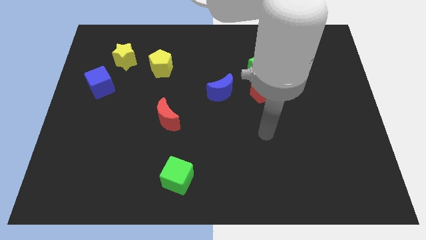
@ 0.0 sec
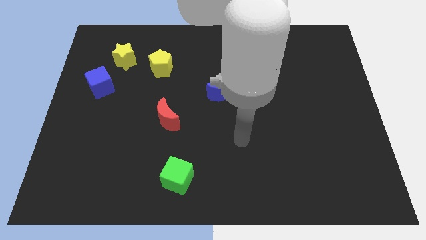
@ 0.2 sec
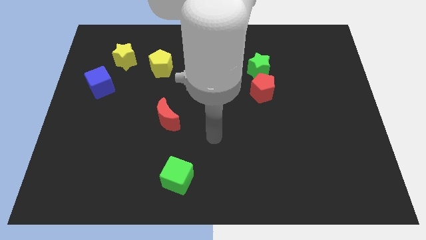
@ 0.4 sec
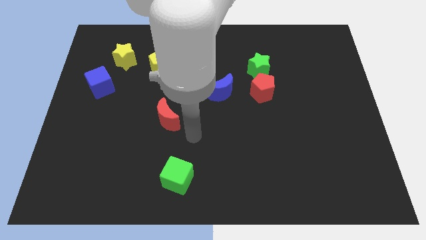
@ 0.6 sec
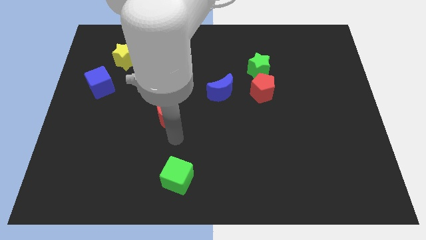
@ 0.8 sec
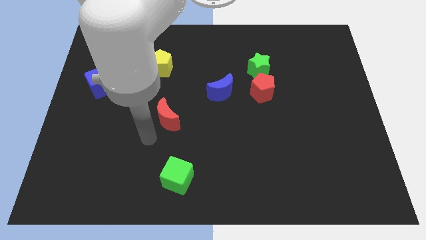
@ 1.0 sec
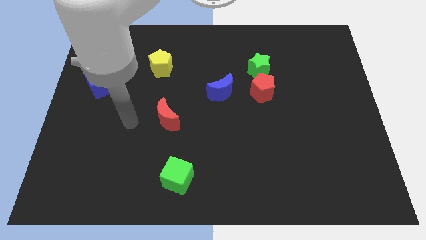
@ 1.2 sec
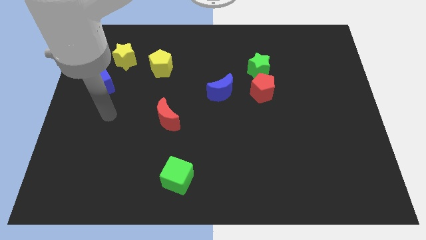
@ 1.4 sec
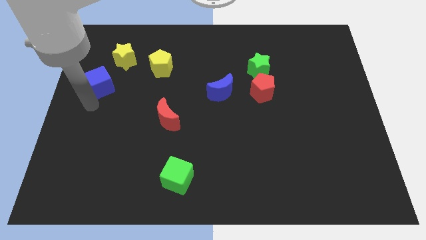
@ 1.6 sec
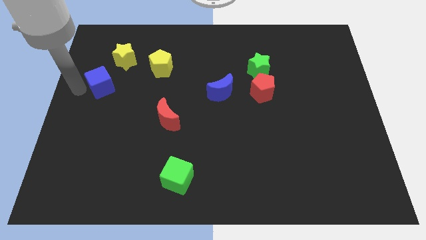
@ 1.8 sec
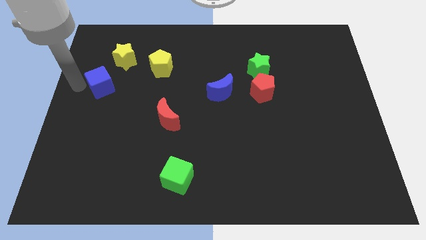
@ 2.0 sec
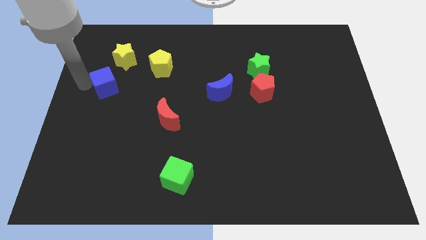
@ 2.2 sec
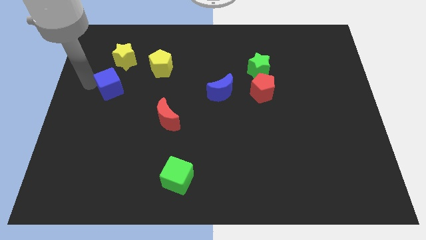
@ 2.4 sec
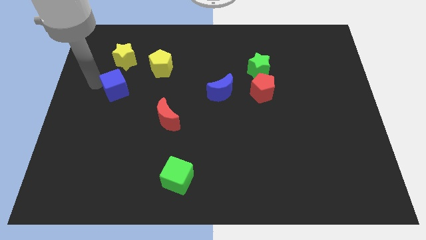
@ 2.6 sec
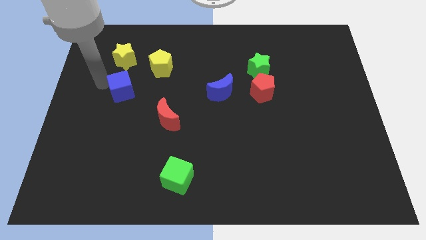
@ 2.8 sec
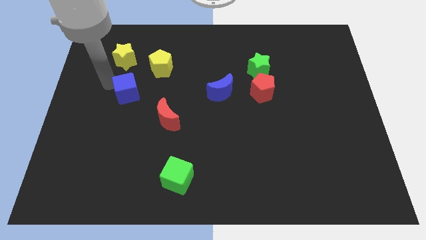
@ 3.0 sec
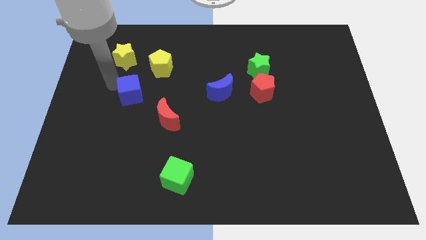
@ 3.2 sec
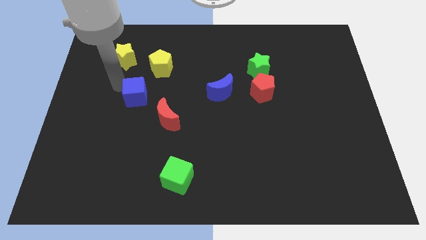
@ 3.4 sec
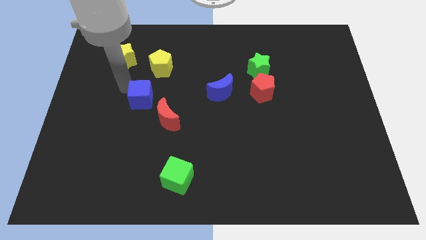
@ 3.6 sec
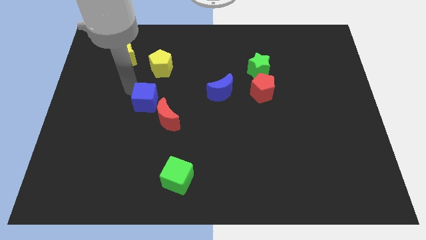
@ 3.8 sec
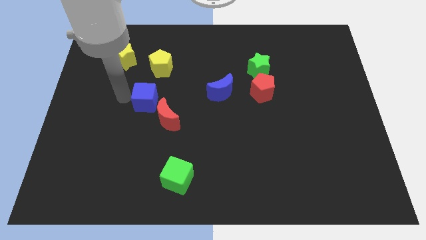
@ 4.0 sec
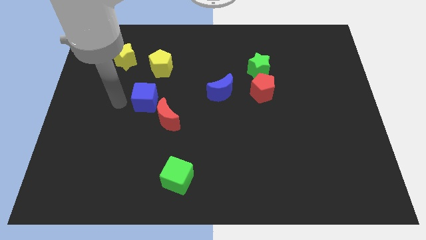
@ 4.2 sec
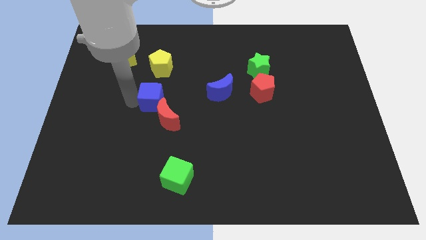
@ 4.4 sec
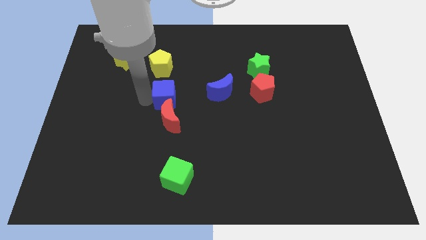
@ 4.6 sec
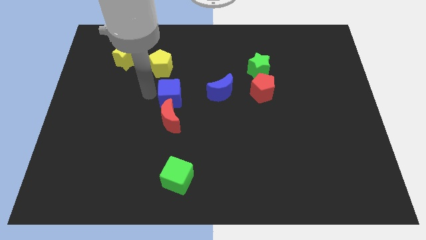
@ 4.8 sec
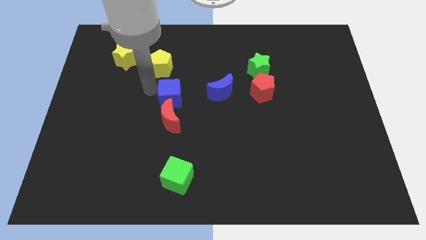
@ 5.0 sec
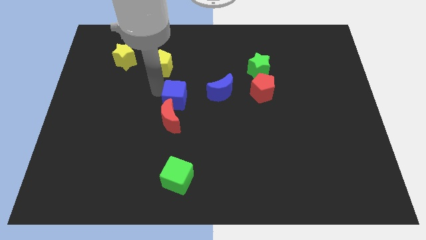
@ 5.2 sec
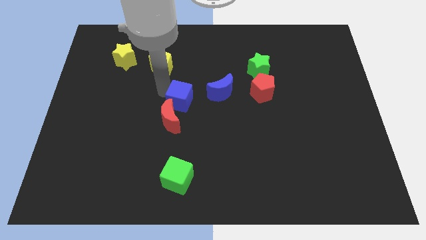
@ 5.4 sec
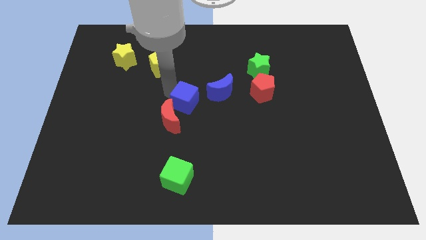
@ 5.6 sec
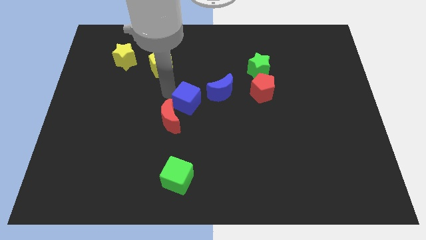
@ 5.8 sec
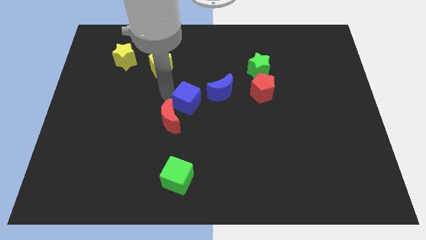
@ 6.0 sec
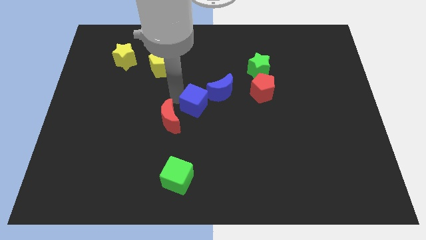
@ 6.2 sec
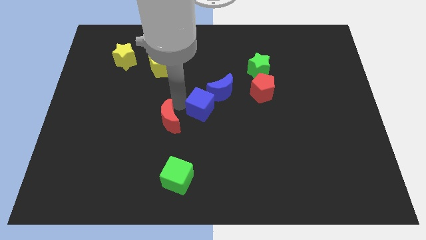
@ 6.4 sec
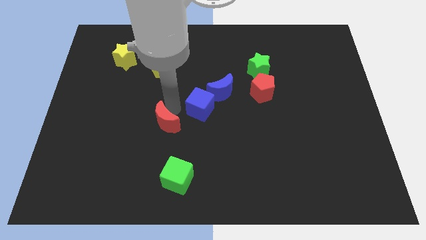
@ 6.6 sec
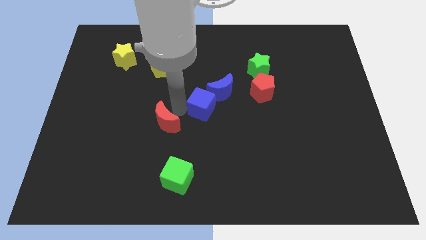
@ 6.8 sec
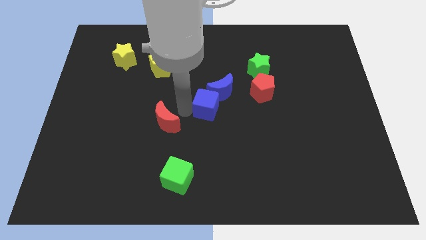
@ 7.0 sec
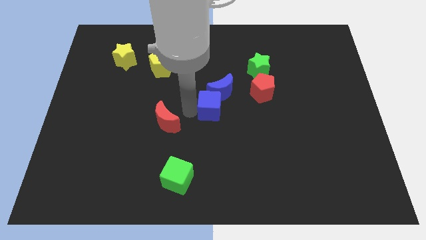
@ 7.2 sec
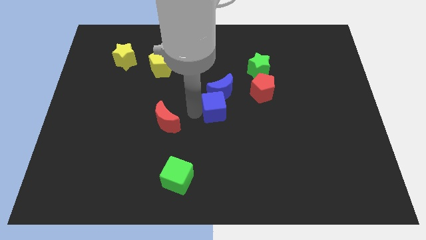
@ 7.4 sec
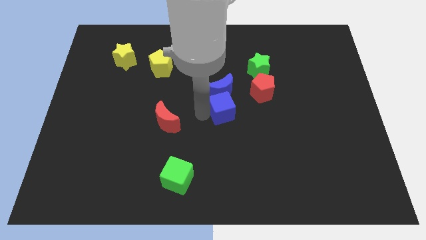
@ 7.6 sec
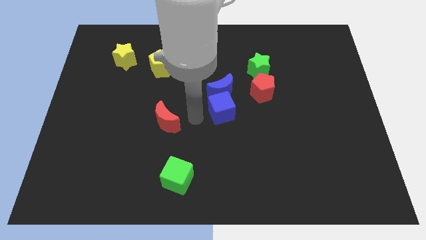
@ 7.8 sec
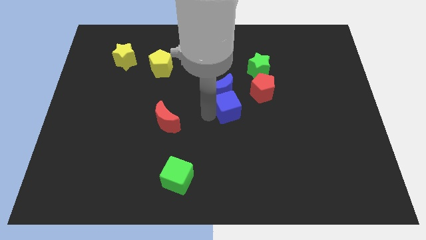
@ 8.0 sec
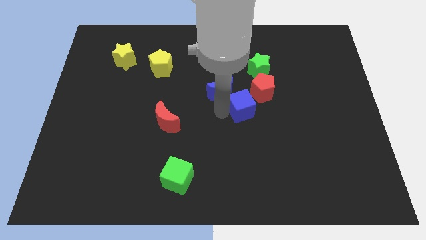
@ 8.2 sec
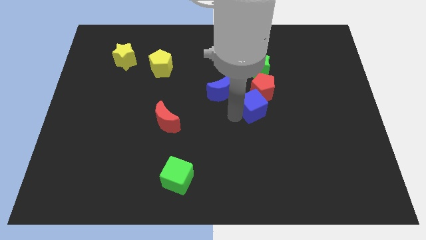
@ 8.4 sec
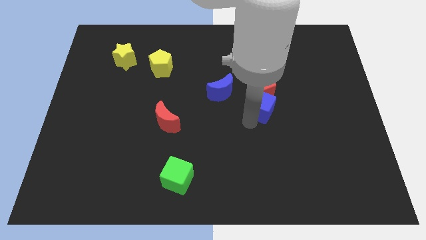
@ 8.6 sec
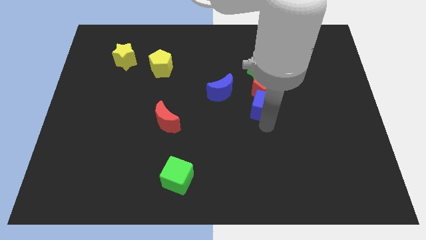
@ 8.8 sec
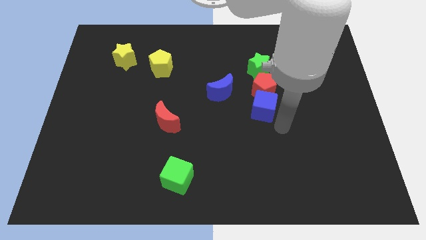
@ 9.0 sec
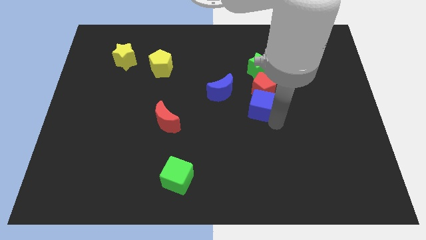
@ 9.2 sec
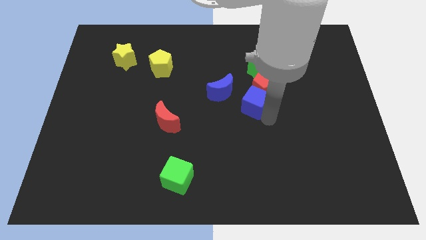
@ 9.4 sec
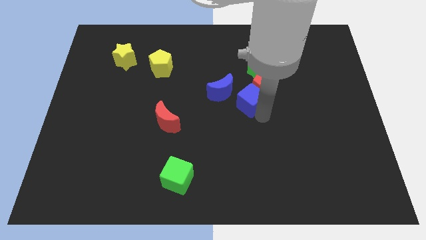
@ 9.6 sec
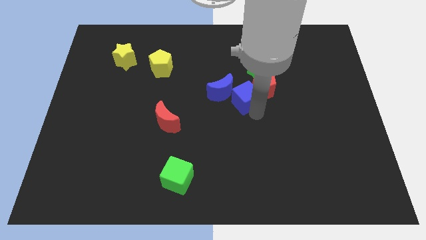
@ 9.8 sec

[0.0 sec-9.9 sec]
move the blue cube diagonally down and to the left of the green star

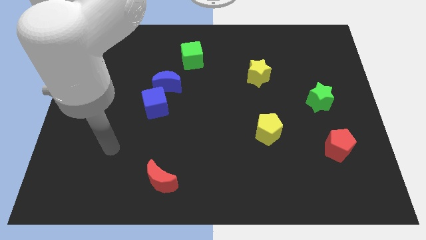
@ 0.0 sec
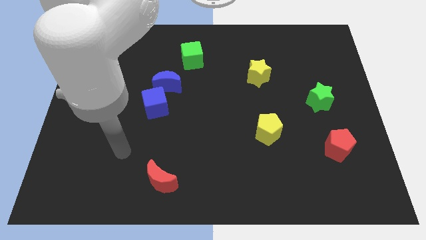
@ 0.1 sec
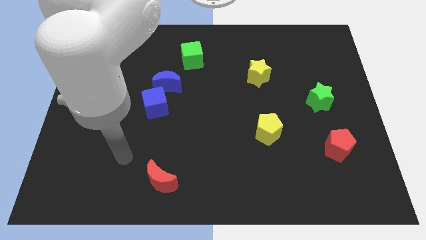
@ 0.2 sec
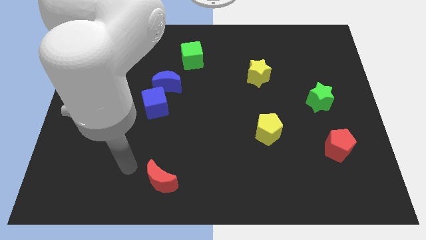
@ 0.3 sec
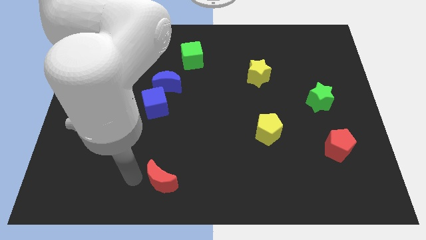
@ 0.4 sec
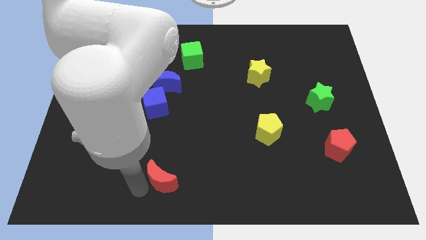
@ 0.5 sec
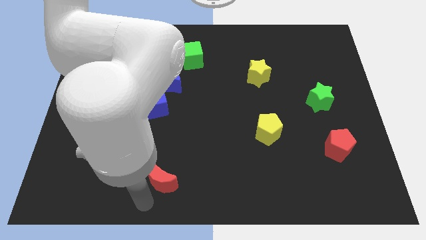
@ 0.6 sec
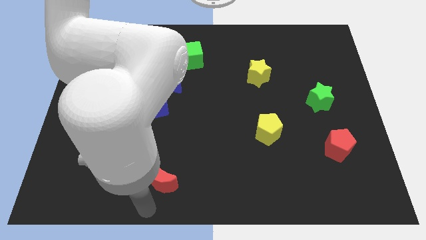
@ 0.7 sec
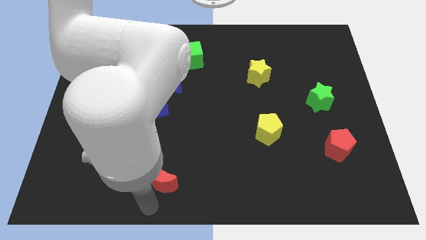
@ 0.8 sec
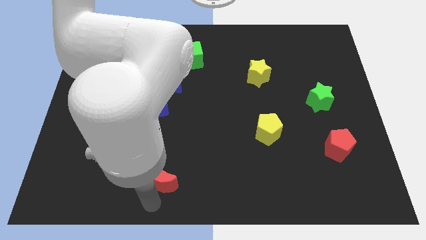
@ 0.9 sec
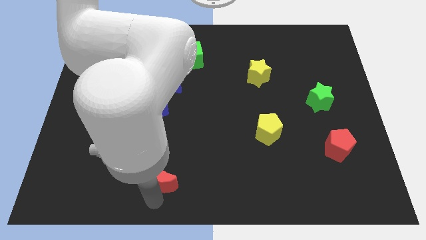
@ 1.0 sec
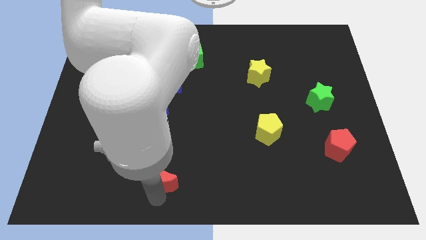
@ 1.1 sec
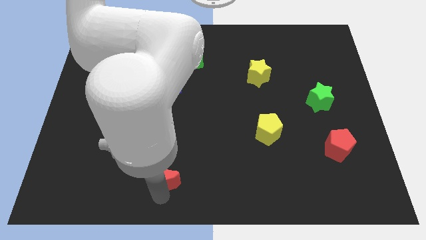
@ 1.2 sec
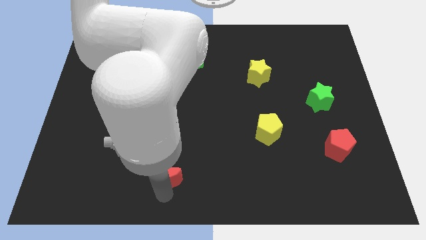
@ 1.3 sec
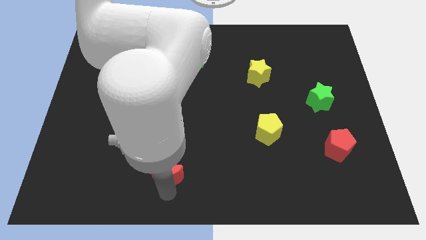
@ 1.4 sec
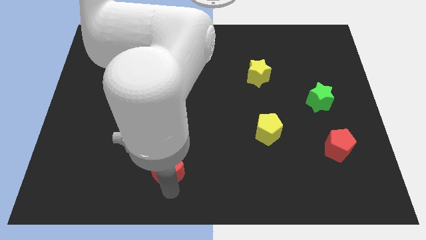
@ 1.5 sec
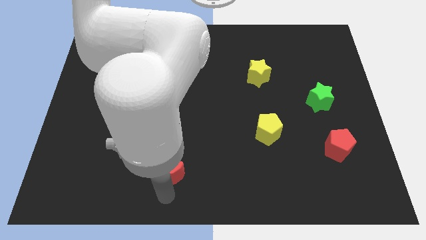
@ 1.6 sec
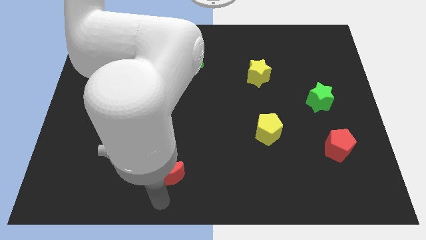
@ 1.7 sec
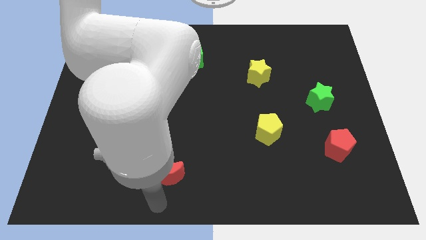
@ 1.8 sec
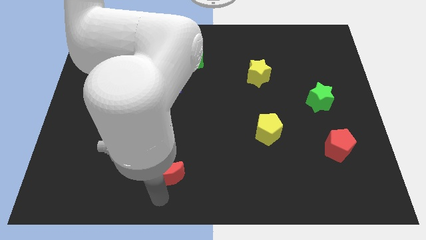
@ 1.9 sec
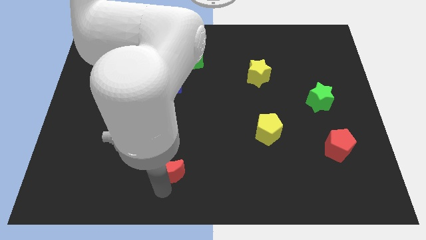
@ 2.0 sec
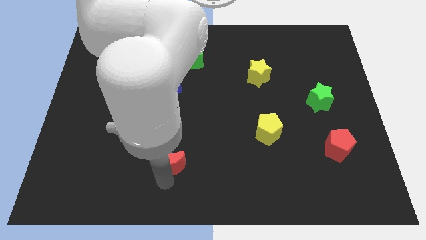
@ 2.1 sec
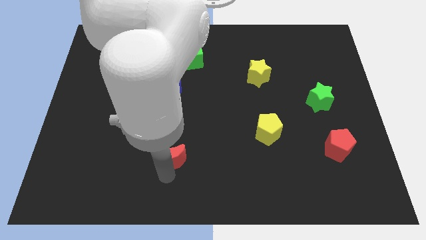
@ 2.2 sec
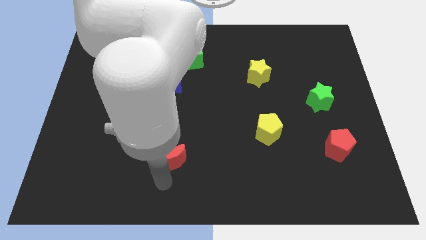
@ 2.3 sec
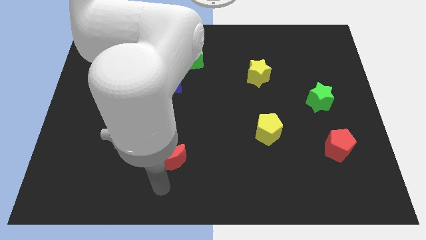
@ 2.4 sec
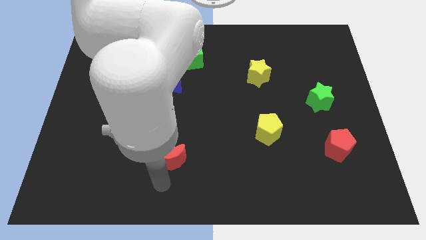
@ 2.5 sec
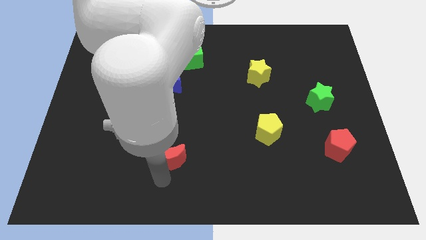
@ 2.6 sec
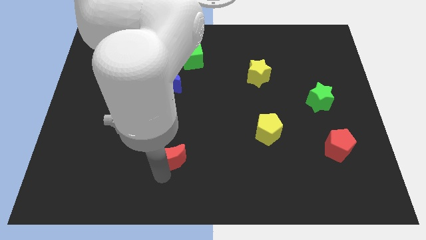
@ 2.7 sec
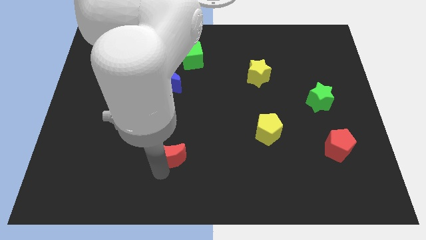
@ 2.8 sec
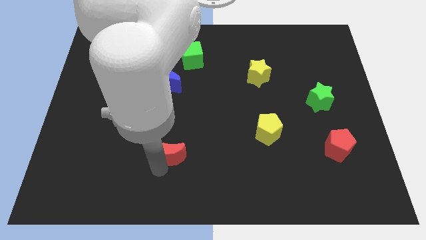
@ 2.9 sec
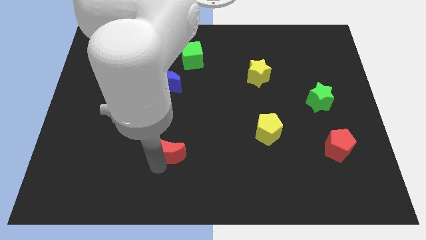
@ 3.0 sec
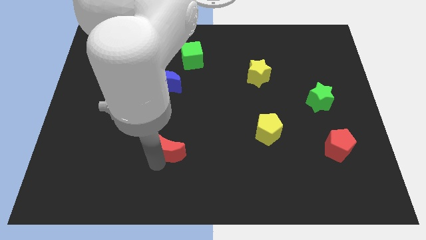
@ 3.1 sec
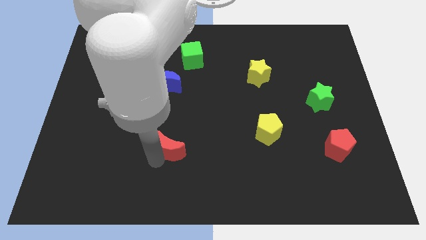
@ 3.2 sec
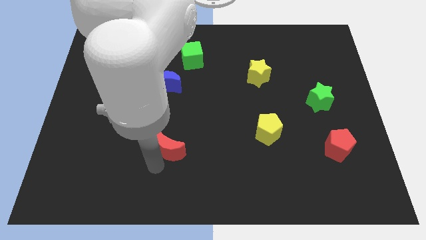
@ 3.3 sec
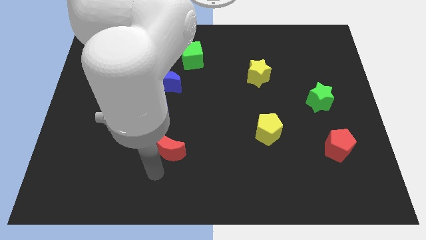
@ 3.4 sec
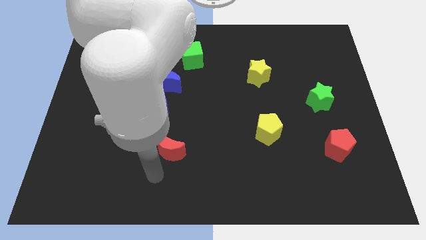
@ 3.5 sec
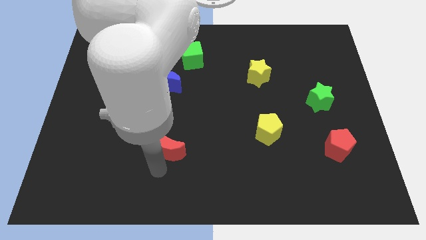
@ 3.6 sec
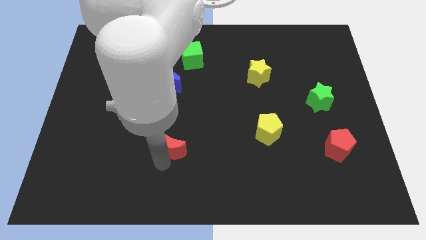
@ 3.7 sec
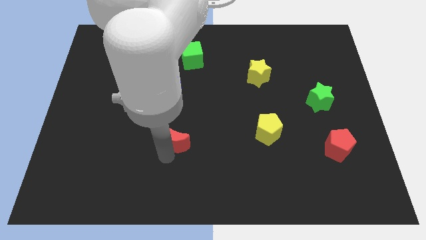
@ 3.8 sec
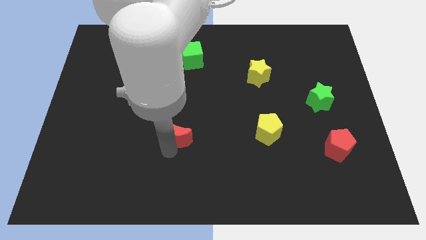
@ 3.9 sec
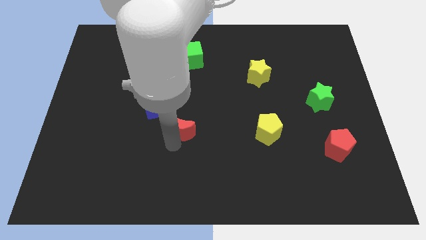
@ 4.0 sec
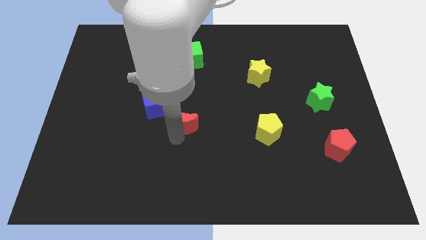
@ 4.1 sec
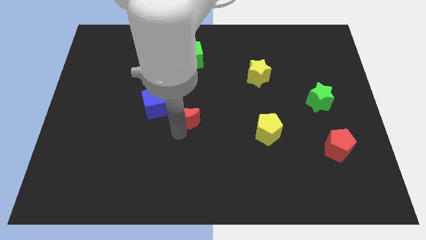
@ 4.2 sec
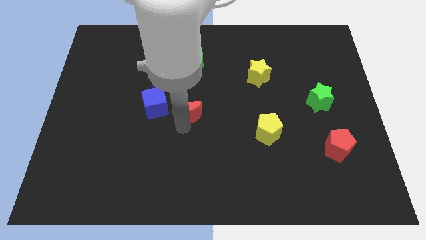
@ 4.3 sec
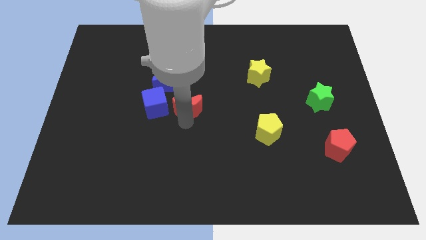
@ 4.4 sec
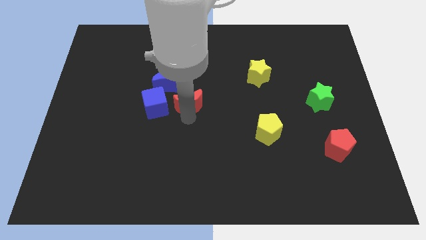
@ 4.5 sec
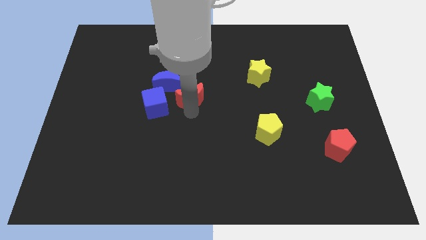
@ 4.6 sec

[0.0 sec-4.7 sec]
push the red moon to the top right side of the blue cube
